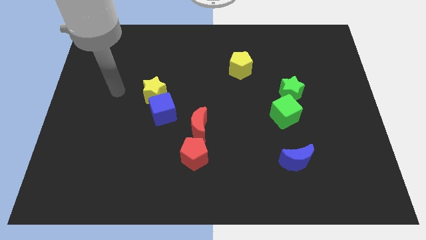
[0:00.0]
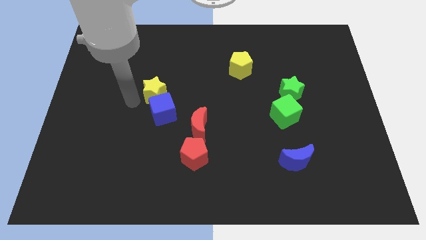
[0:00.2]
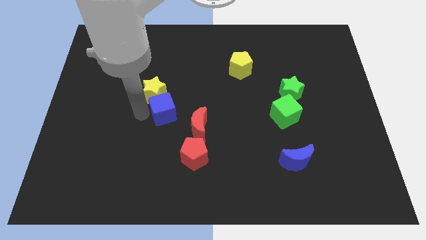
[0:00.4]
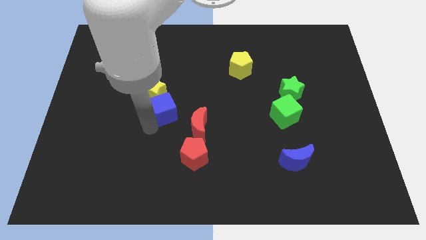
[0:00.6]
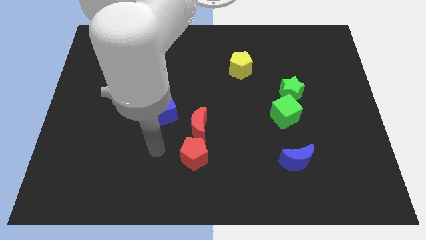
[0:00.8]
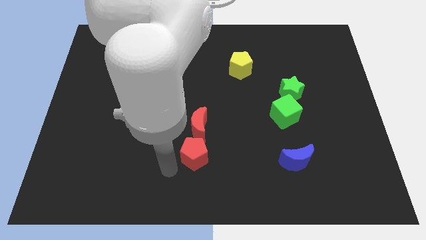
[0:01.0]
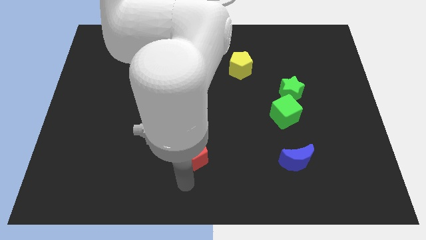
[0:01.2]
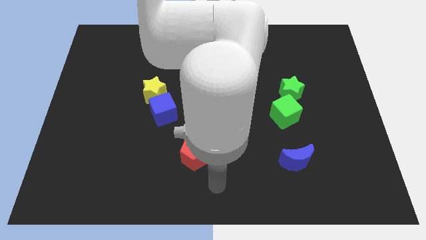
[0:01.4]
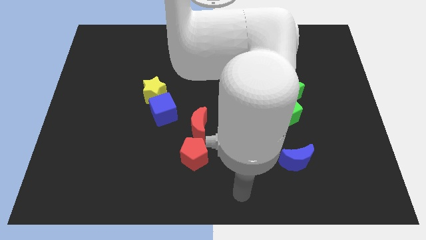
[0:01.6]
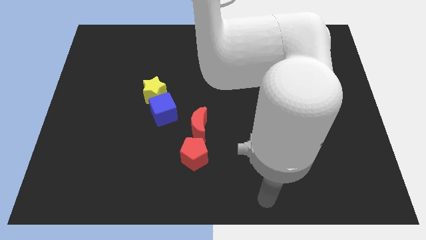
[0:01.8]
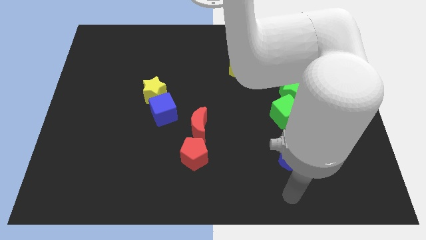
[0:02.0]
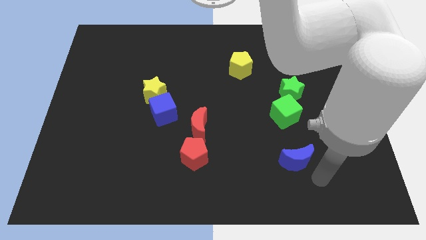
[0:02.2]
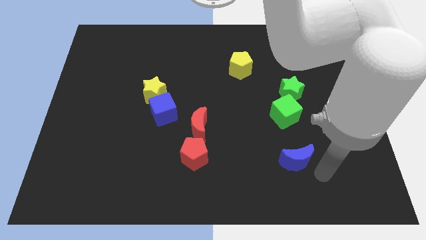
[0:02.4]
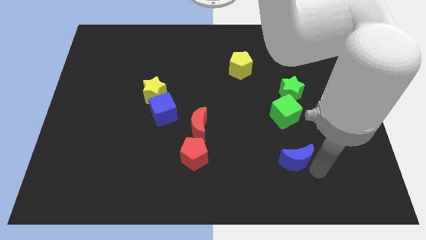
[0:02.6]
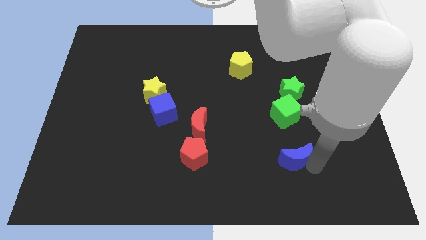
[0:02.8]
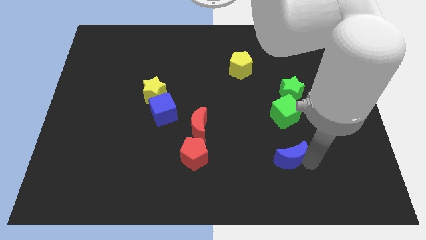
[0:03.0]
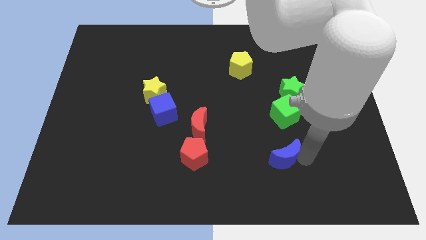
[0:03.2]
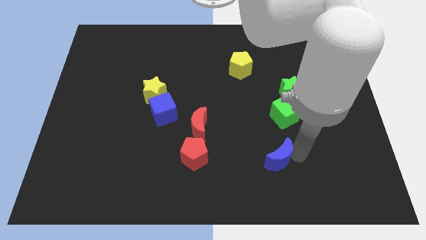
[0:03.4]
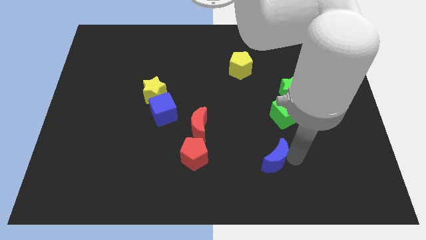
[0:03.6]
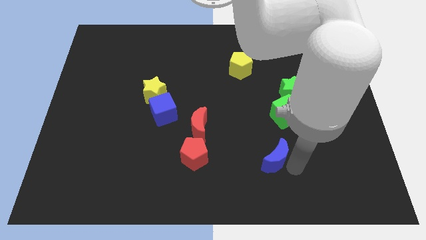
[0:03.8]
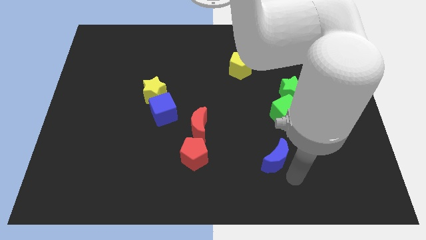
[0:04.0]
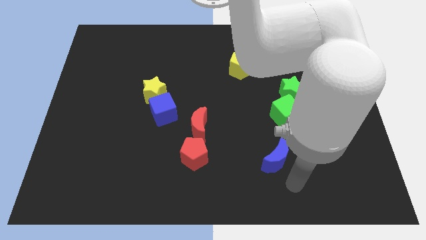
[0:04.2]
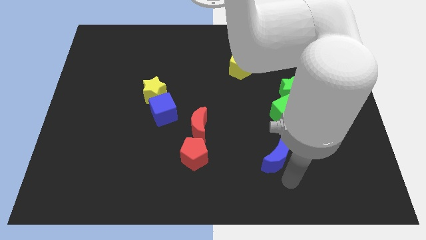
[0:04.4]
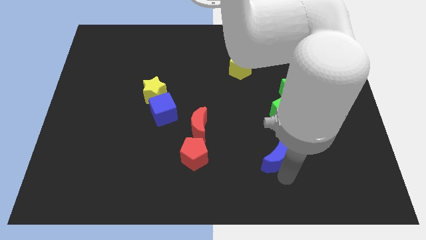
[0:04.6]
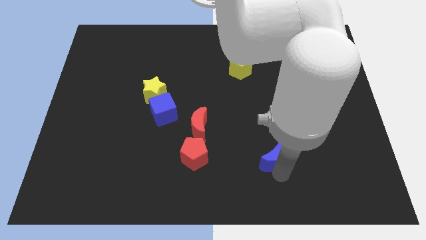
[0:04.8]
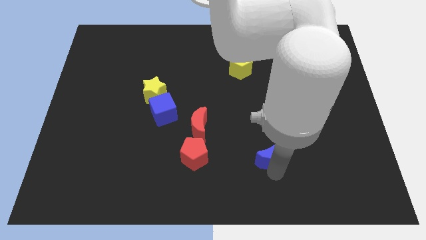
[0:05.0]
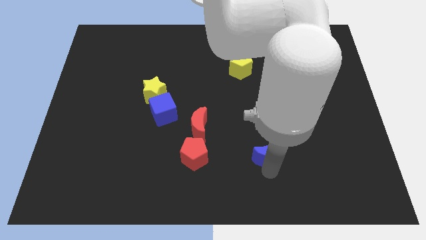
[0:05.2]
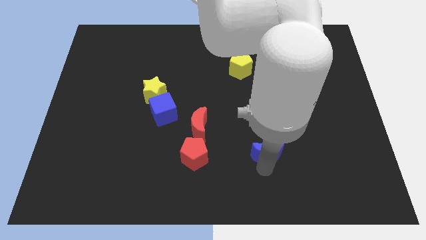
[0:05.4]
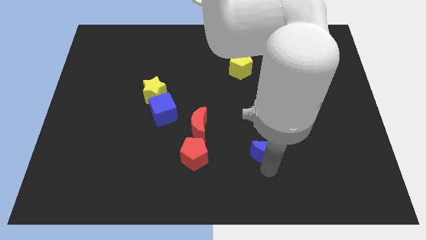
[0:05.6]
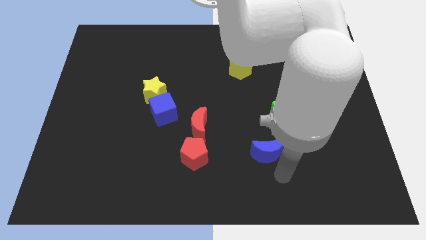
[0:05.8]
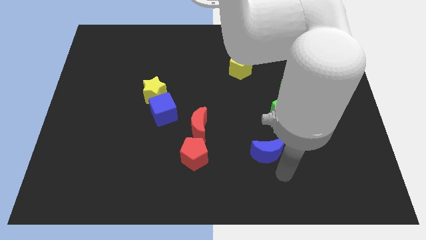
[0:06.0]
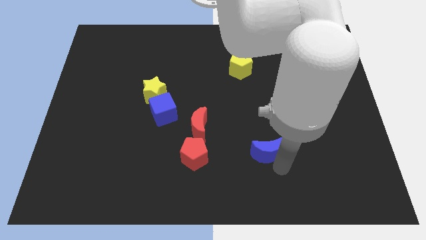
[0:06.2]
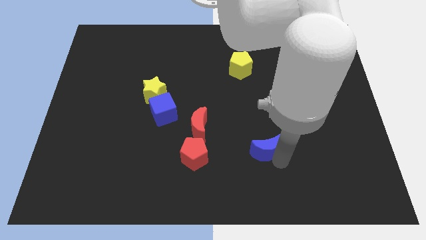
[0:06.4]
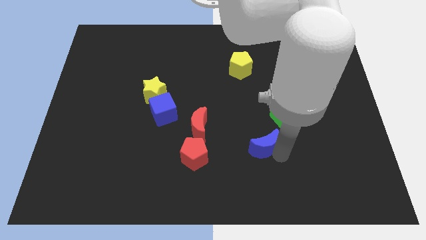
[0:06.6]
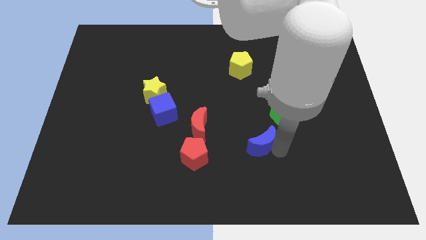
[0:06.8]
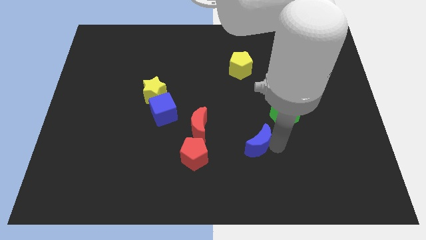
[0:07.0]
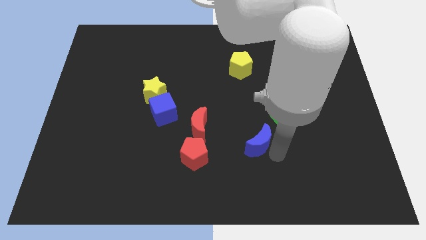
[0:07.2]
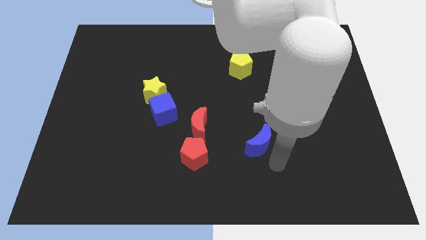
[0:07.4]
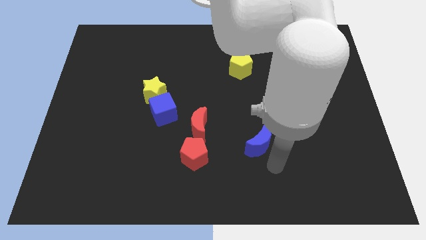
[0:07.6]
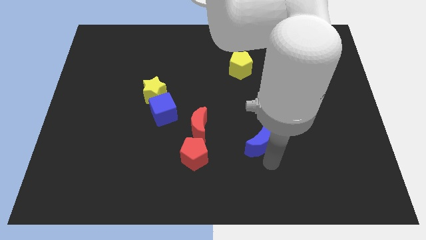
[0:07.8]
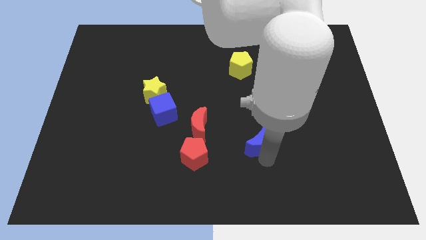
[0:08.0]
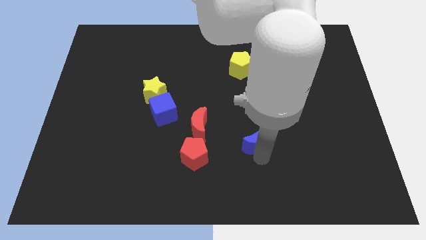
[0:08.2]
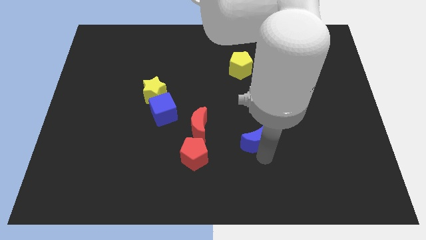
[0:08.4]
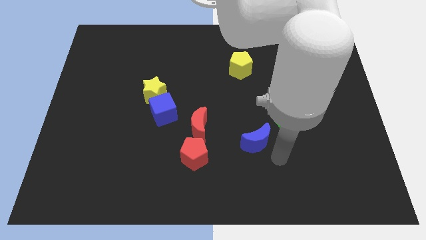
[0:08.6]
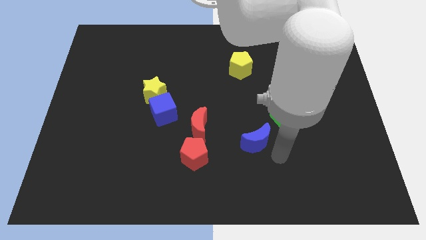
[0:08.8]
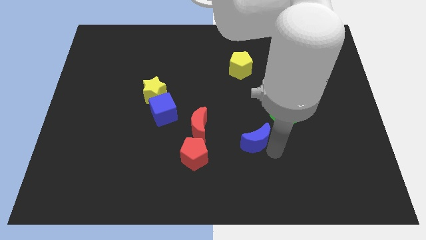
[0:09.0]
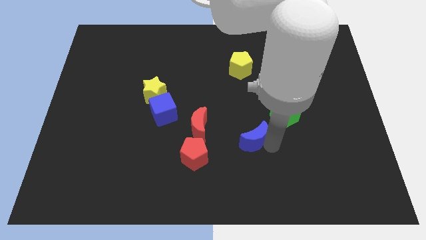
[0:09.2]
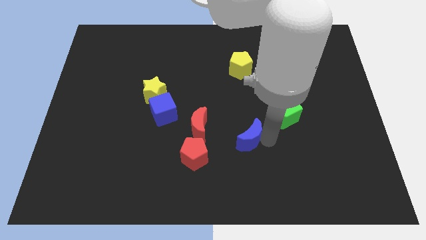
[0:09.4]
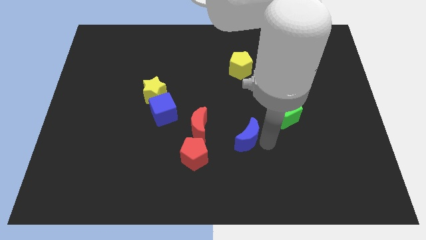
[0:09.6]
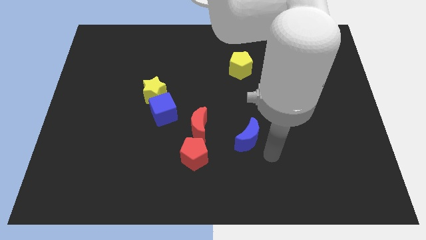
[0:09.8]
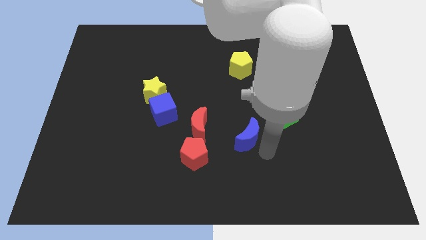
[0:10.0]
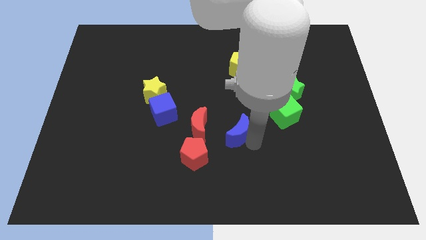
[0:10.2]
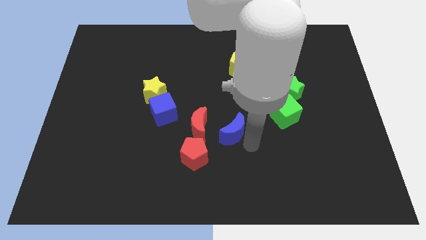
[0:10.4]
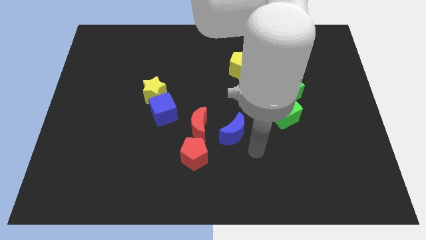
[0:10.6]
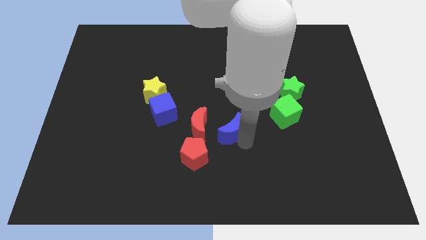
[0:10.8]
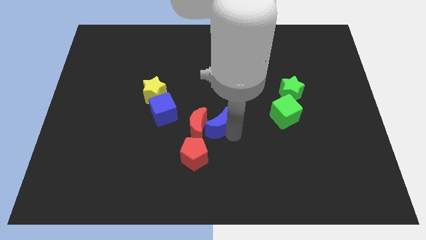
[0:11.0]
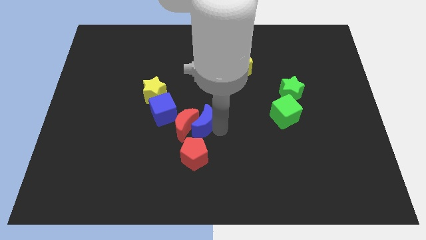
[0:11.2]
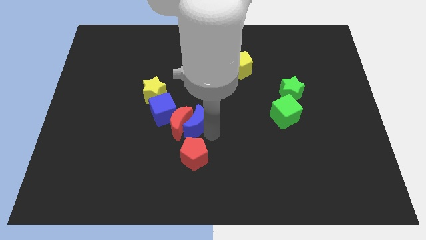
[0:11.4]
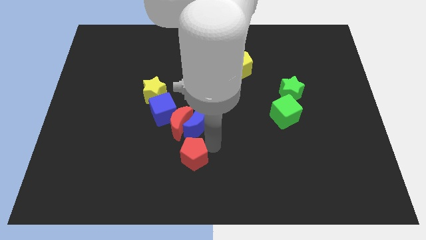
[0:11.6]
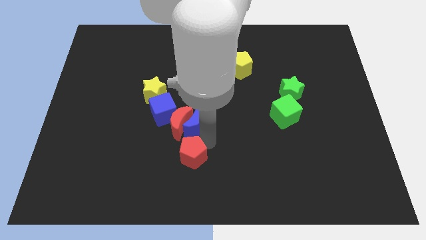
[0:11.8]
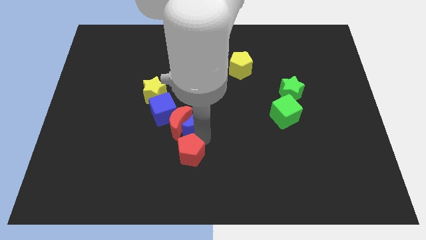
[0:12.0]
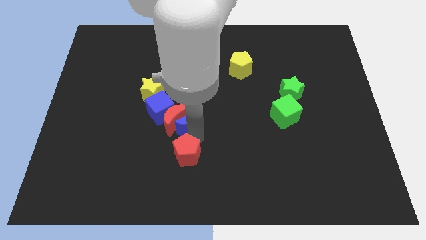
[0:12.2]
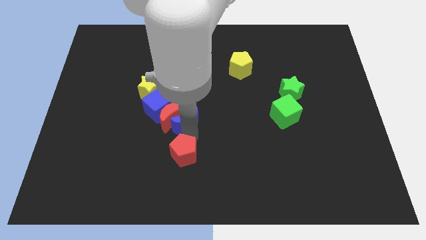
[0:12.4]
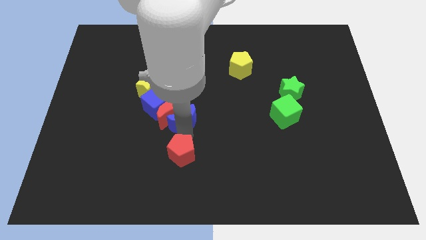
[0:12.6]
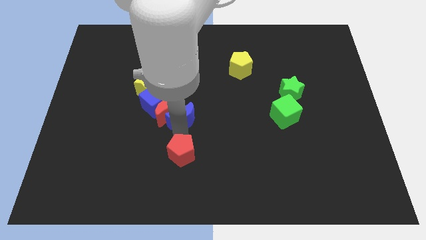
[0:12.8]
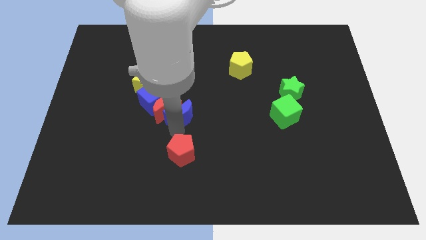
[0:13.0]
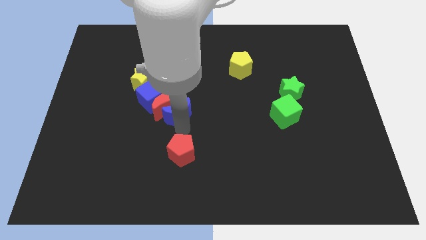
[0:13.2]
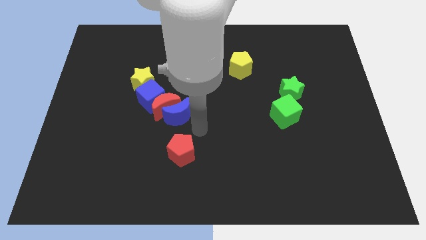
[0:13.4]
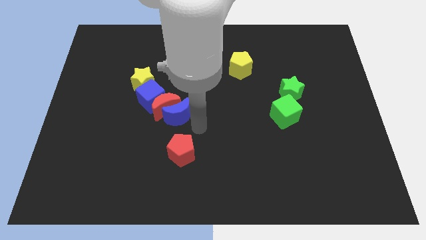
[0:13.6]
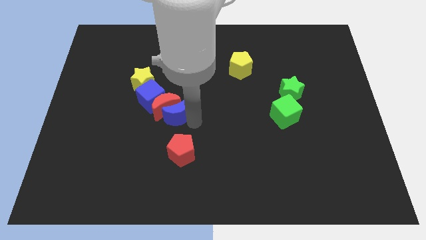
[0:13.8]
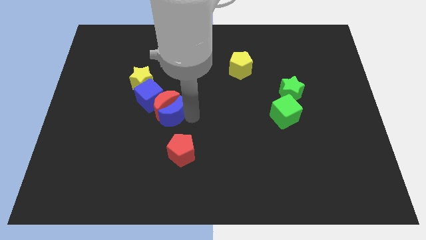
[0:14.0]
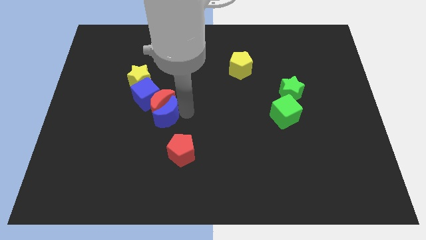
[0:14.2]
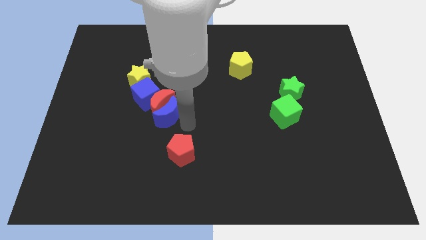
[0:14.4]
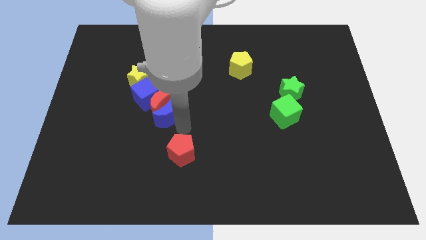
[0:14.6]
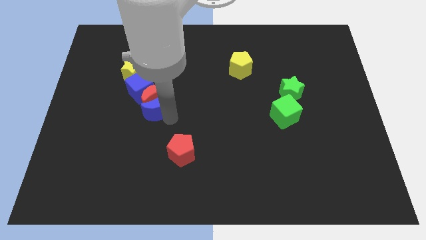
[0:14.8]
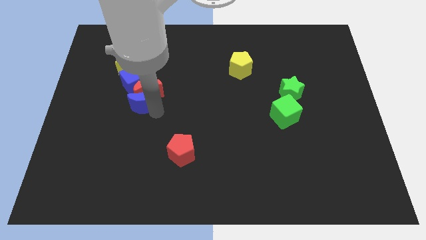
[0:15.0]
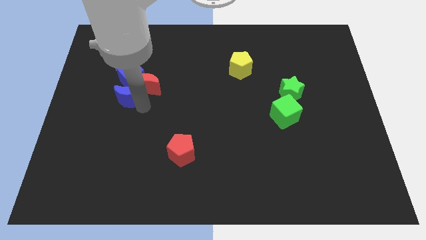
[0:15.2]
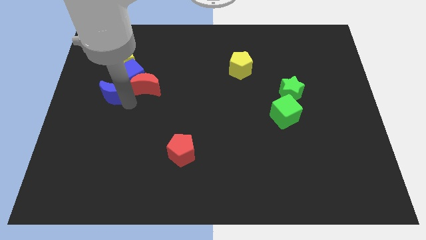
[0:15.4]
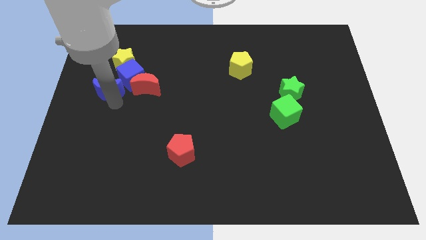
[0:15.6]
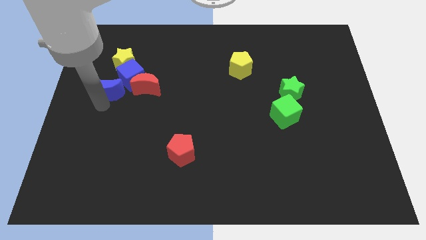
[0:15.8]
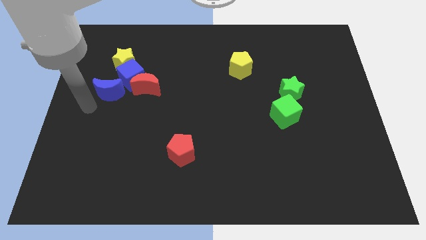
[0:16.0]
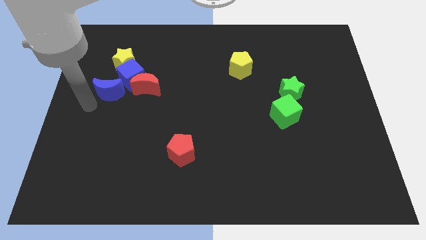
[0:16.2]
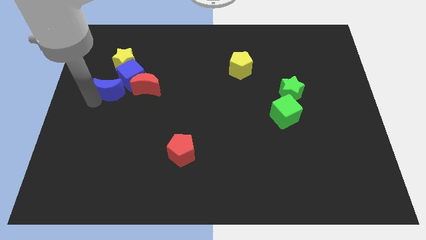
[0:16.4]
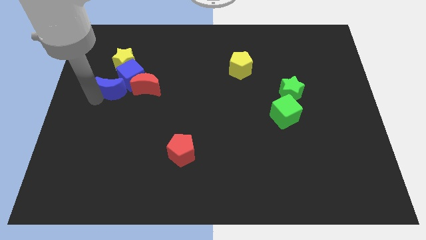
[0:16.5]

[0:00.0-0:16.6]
put the blue moon towards the blue cube
